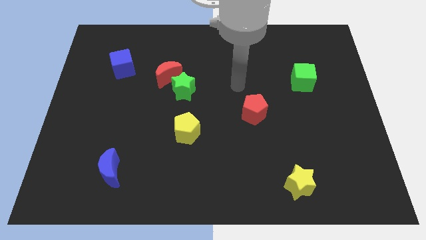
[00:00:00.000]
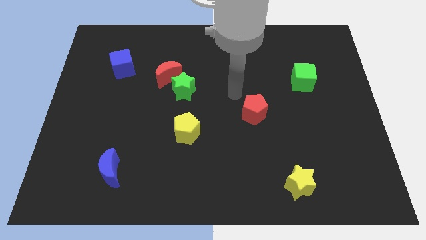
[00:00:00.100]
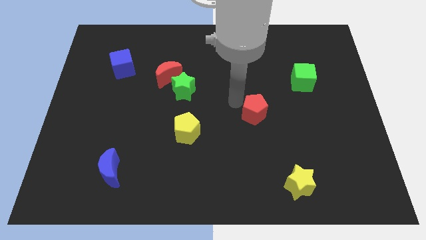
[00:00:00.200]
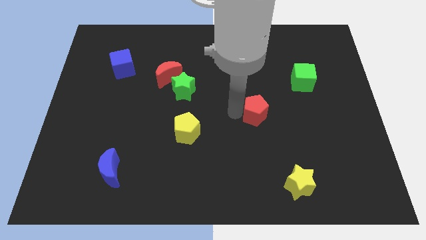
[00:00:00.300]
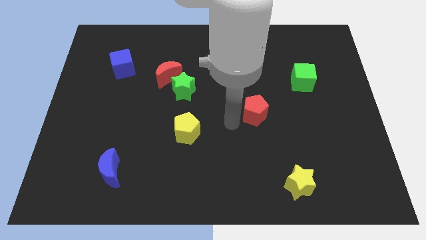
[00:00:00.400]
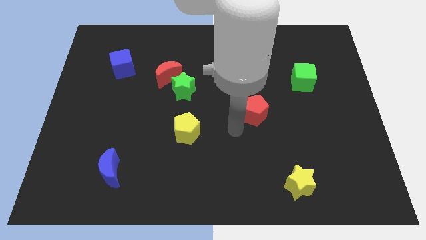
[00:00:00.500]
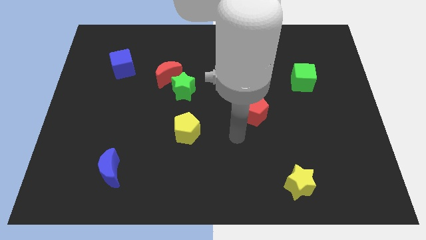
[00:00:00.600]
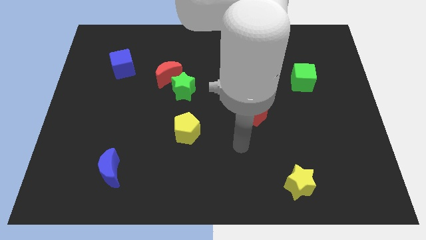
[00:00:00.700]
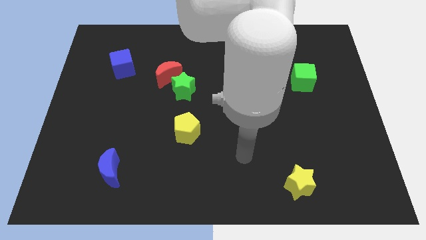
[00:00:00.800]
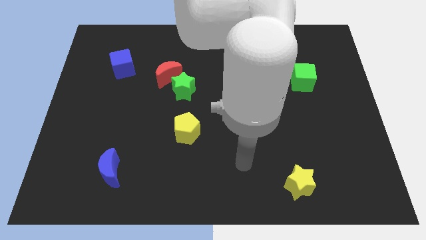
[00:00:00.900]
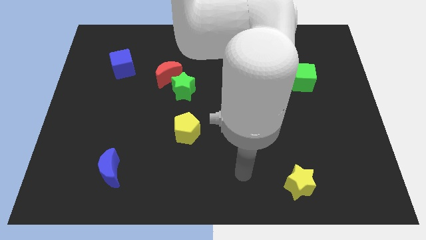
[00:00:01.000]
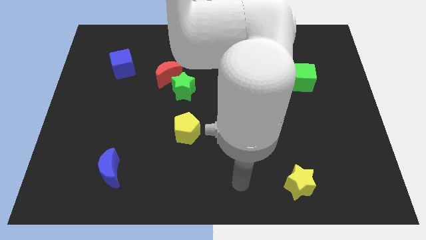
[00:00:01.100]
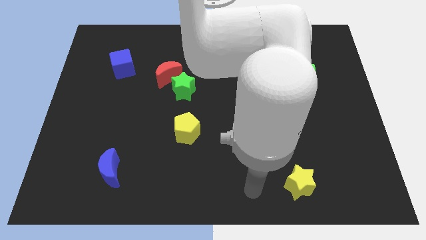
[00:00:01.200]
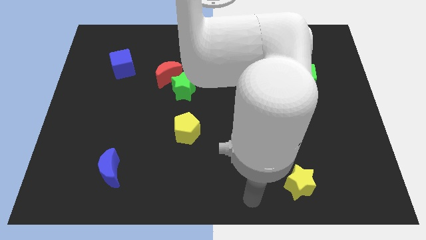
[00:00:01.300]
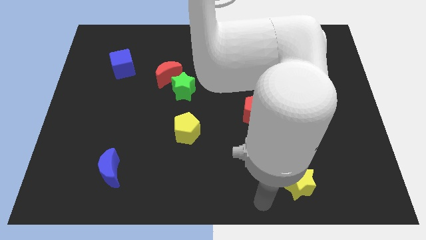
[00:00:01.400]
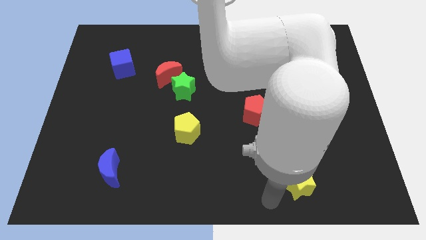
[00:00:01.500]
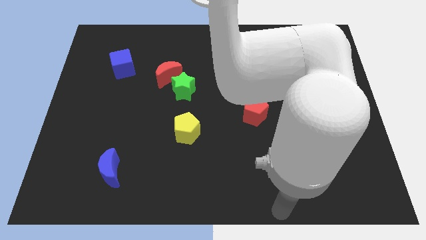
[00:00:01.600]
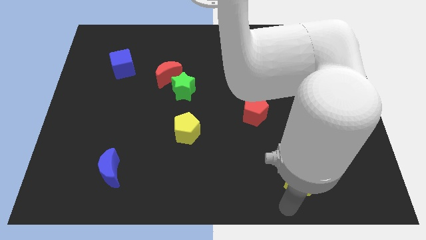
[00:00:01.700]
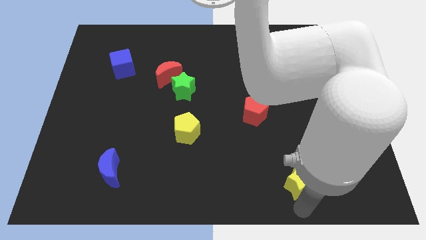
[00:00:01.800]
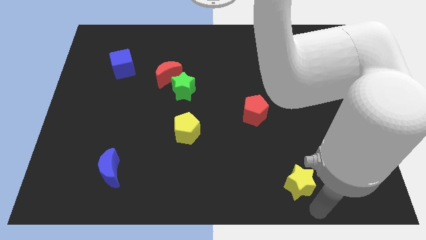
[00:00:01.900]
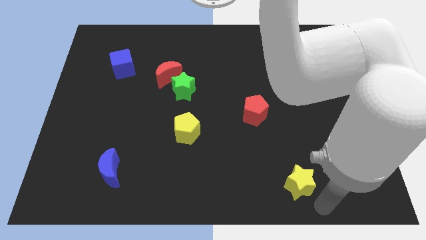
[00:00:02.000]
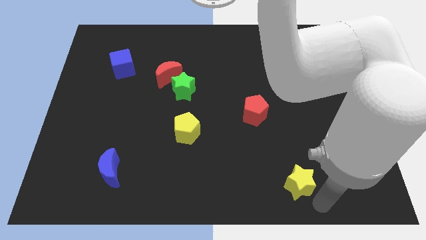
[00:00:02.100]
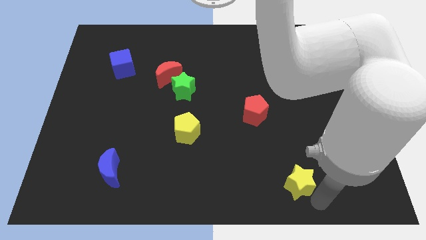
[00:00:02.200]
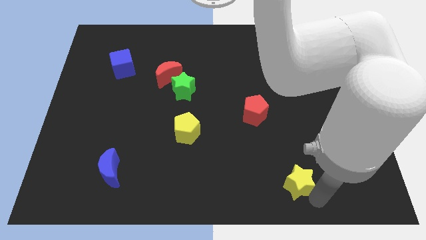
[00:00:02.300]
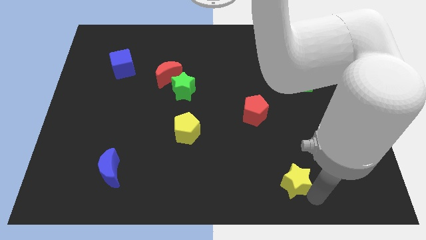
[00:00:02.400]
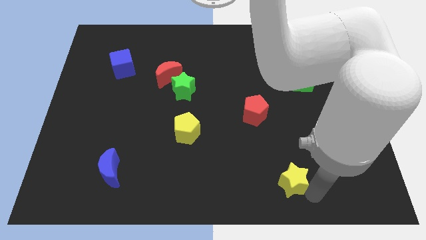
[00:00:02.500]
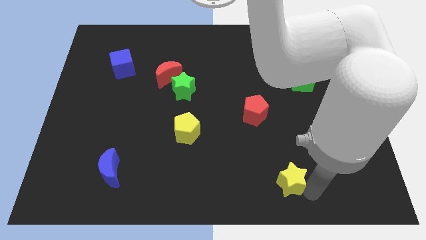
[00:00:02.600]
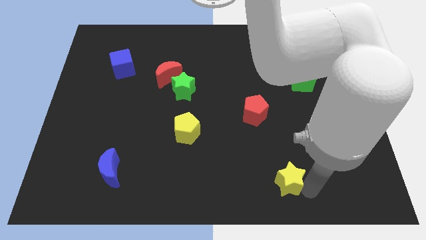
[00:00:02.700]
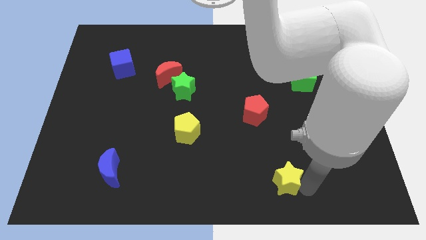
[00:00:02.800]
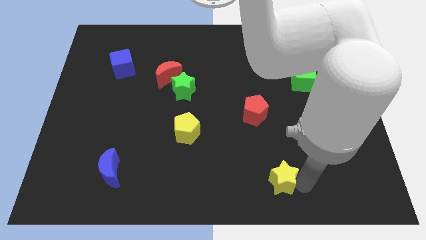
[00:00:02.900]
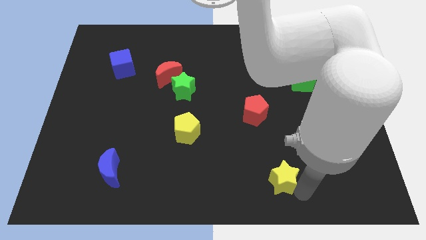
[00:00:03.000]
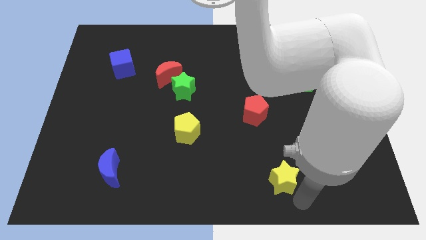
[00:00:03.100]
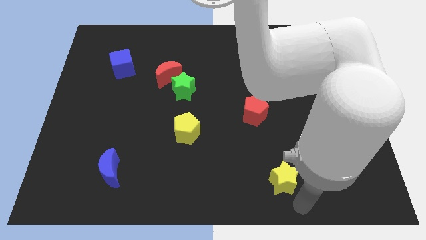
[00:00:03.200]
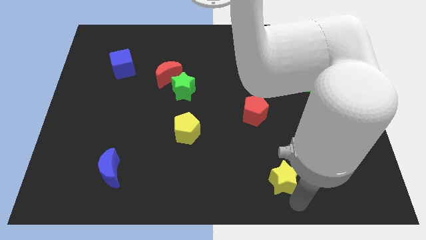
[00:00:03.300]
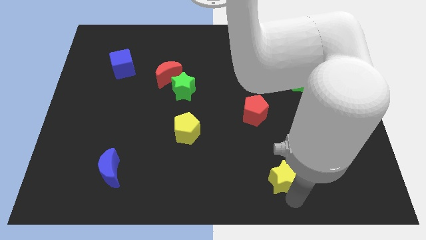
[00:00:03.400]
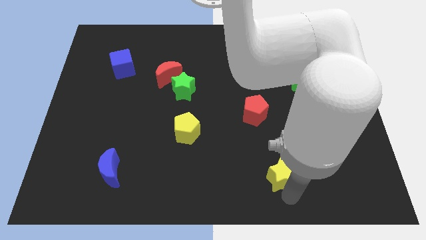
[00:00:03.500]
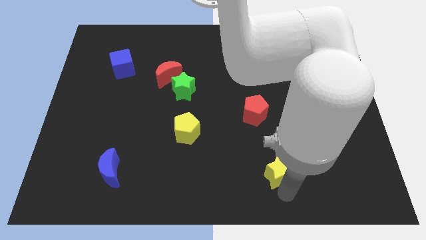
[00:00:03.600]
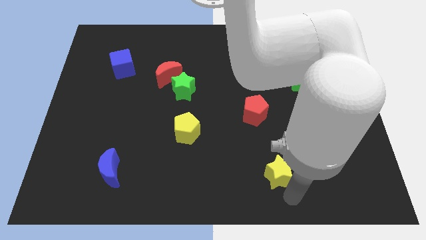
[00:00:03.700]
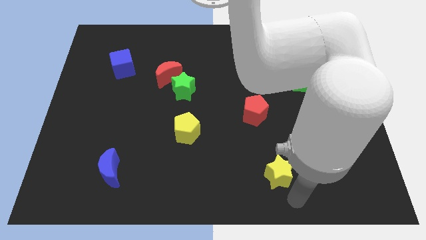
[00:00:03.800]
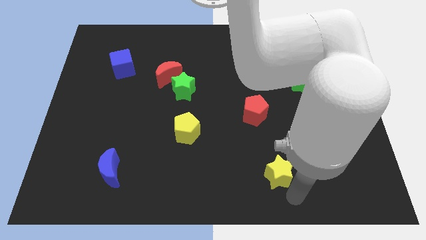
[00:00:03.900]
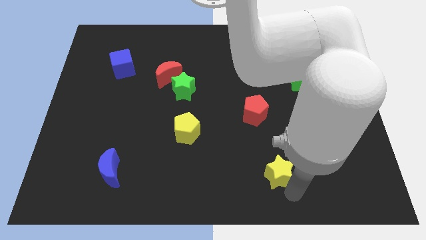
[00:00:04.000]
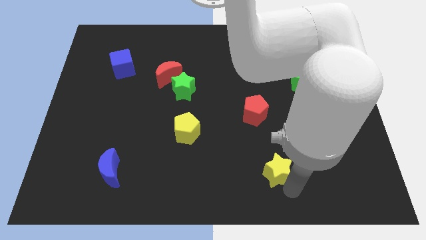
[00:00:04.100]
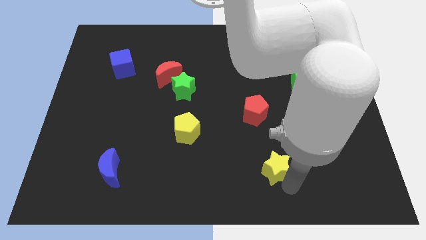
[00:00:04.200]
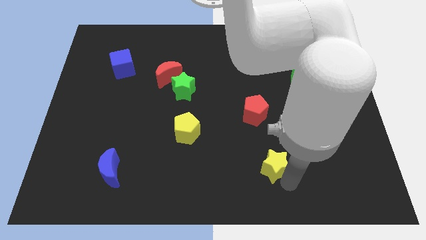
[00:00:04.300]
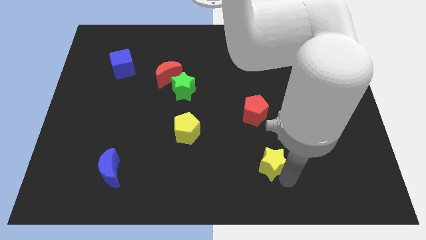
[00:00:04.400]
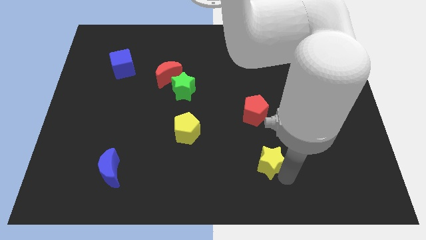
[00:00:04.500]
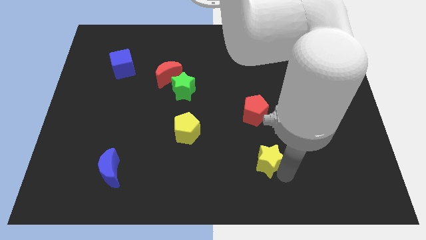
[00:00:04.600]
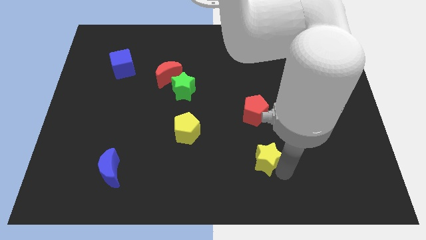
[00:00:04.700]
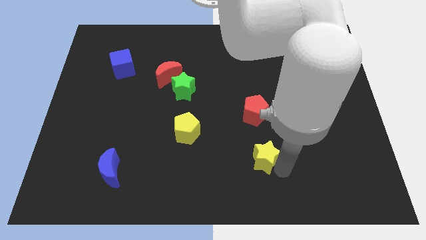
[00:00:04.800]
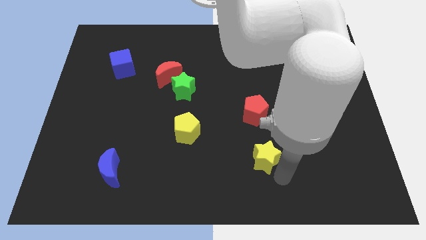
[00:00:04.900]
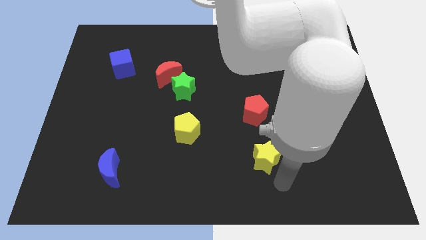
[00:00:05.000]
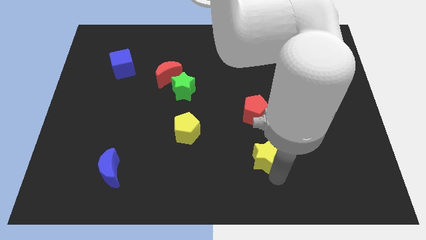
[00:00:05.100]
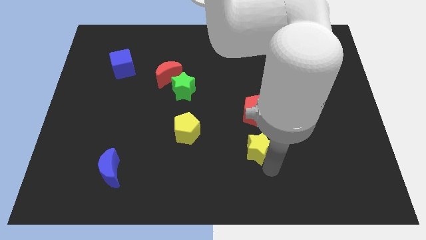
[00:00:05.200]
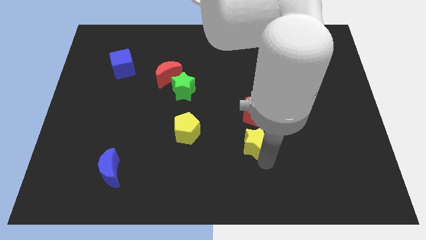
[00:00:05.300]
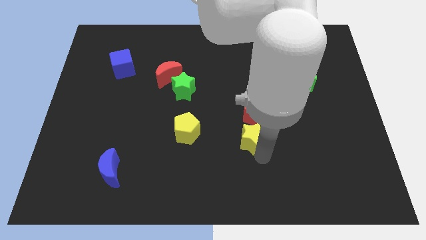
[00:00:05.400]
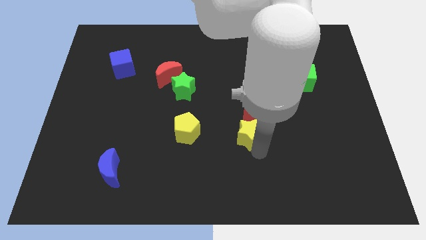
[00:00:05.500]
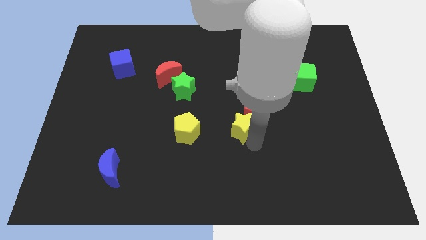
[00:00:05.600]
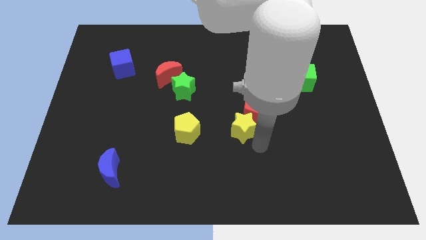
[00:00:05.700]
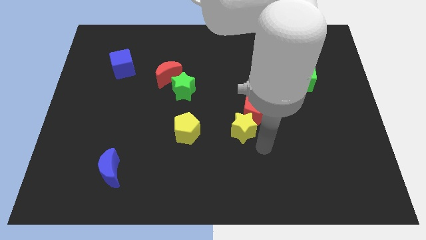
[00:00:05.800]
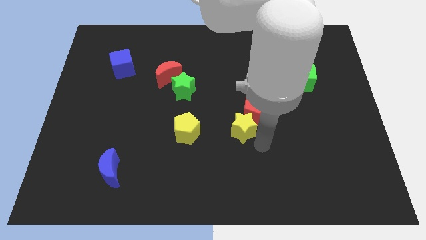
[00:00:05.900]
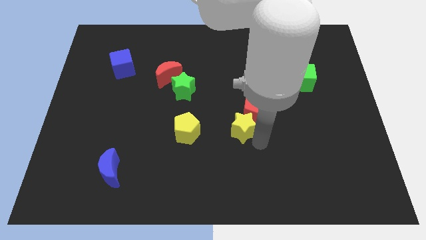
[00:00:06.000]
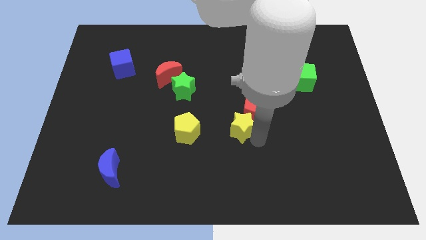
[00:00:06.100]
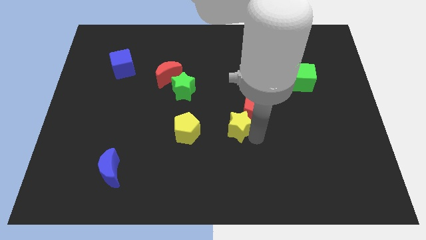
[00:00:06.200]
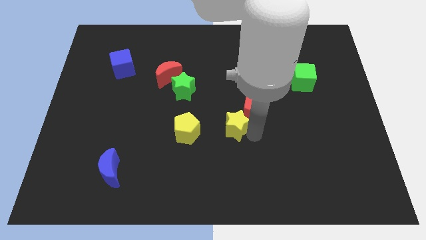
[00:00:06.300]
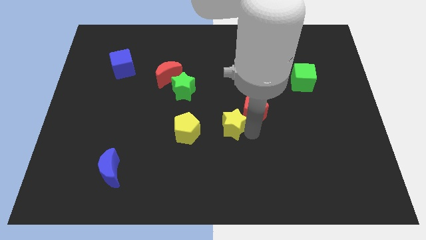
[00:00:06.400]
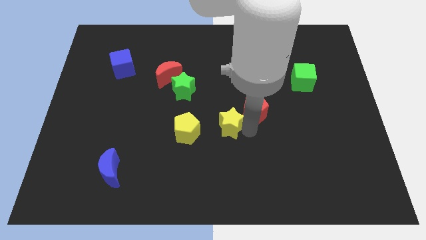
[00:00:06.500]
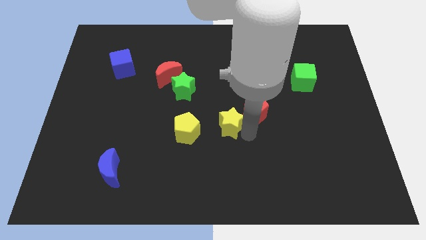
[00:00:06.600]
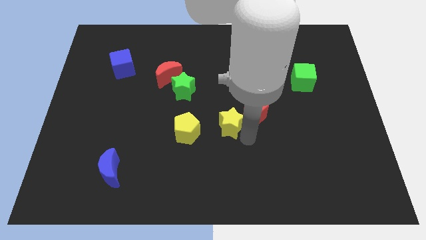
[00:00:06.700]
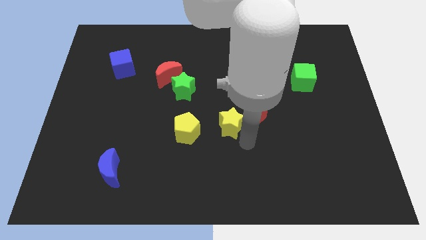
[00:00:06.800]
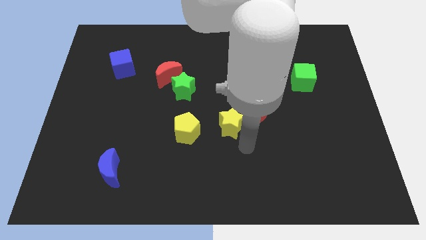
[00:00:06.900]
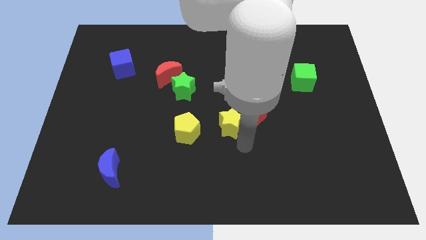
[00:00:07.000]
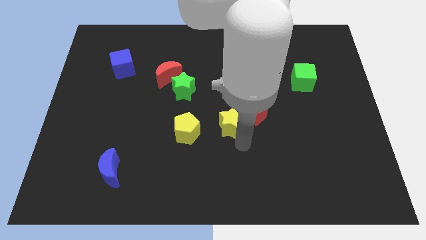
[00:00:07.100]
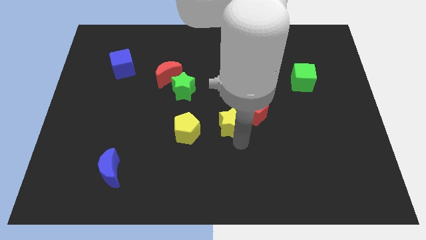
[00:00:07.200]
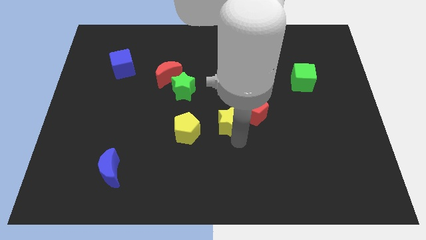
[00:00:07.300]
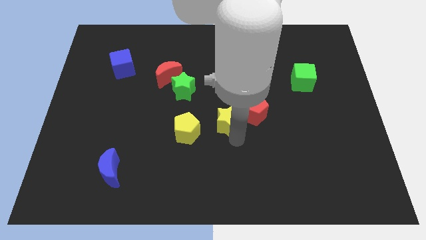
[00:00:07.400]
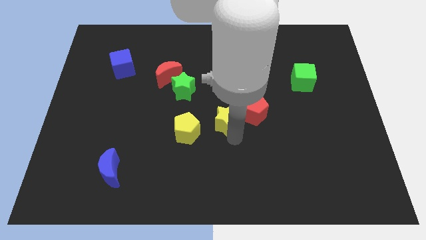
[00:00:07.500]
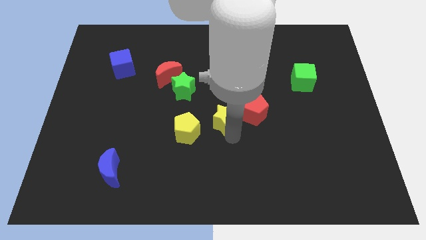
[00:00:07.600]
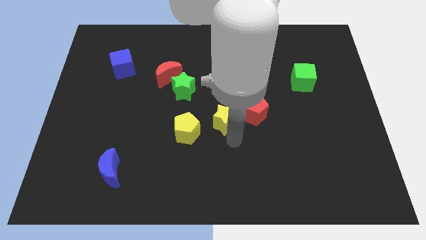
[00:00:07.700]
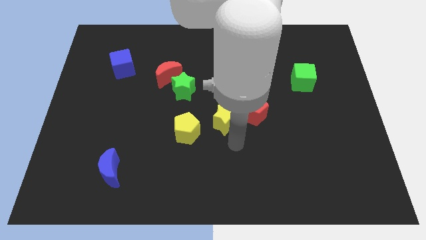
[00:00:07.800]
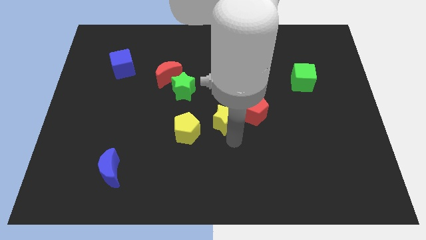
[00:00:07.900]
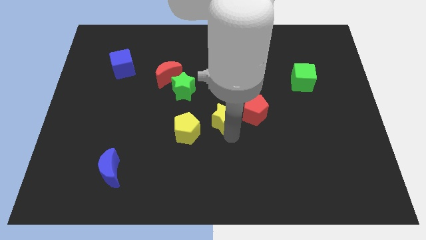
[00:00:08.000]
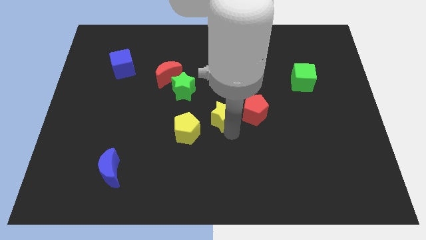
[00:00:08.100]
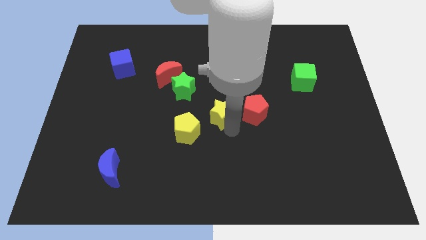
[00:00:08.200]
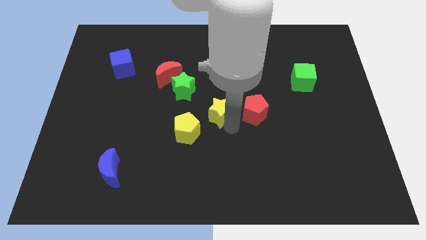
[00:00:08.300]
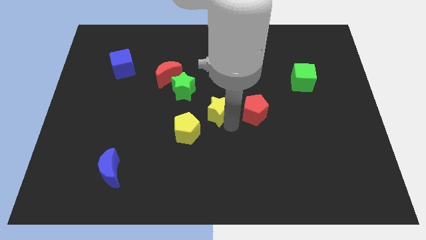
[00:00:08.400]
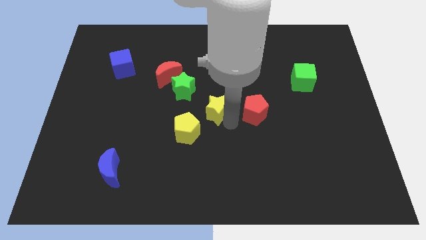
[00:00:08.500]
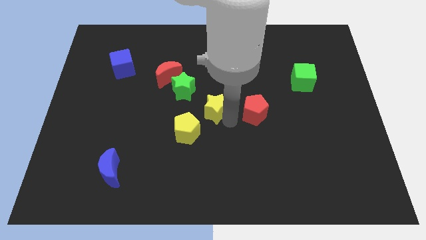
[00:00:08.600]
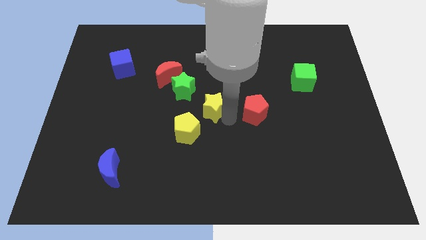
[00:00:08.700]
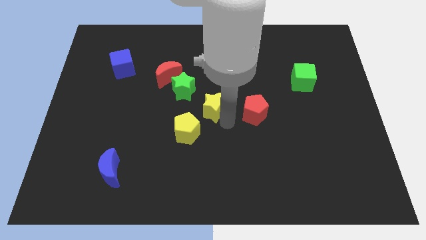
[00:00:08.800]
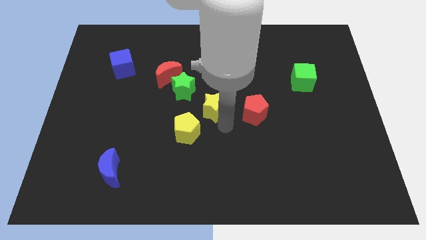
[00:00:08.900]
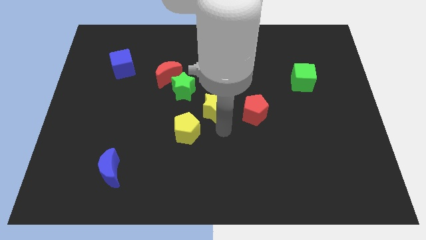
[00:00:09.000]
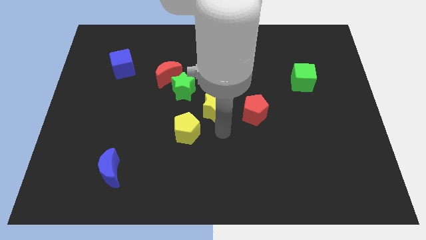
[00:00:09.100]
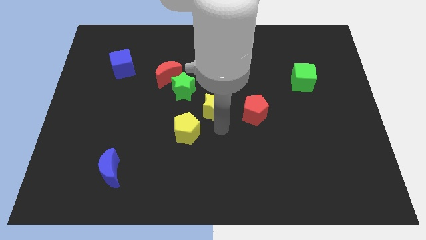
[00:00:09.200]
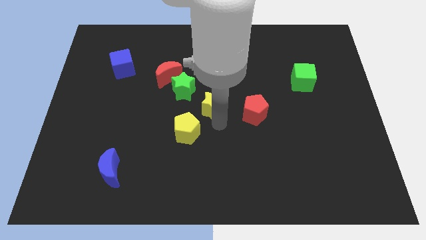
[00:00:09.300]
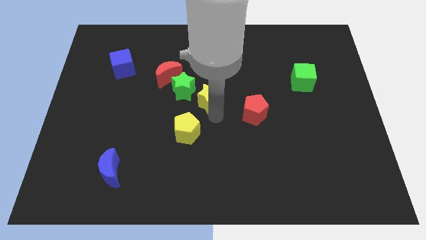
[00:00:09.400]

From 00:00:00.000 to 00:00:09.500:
push the yellow star above the yellow pentagon
